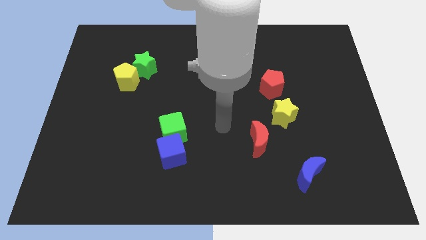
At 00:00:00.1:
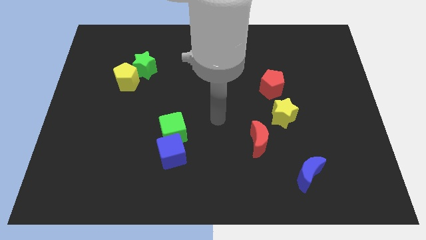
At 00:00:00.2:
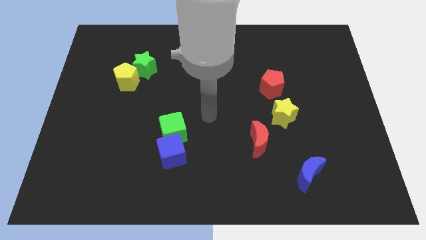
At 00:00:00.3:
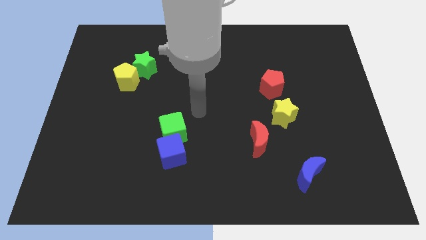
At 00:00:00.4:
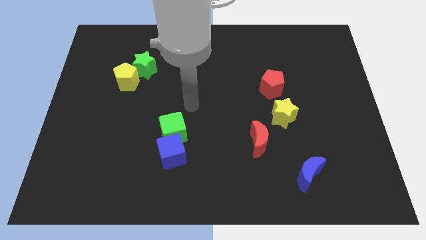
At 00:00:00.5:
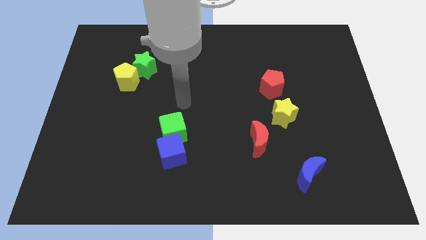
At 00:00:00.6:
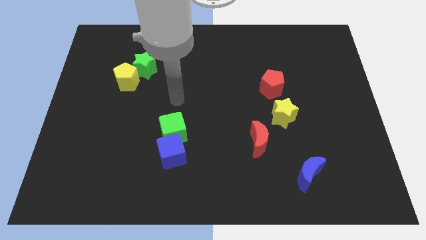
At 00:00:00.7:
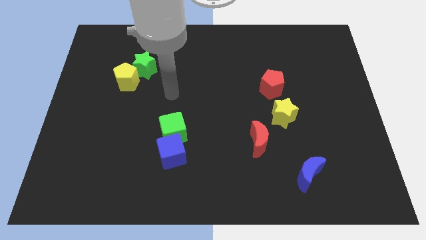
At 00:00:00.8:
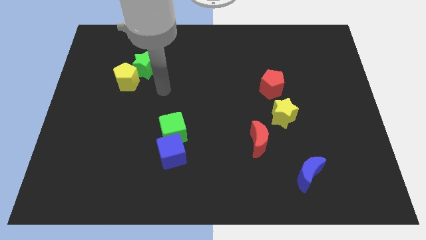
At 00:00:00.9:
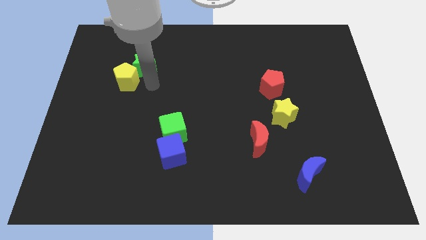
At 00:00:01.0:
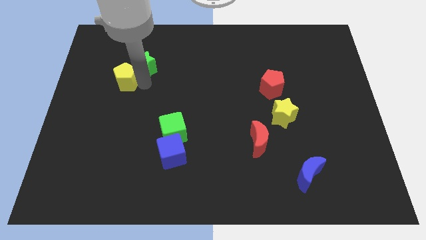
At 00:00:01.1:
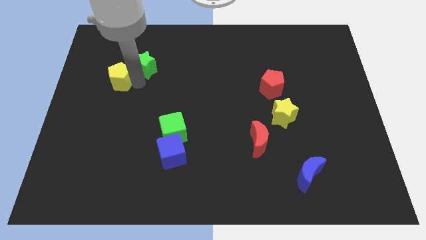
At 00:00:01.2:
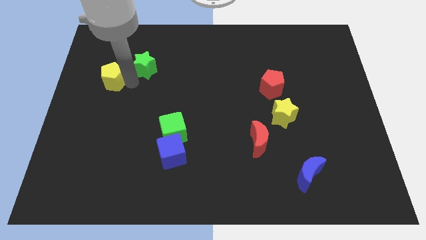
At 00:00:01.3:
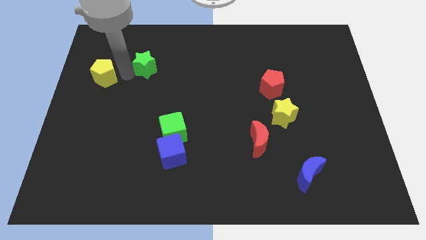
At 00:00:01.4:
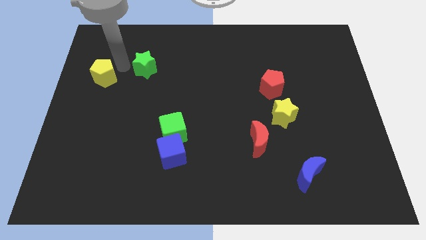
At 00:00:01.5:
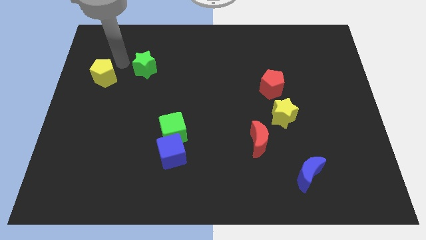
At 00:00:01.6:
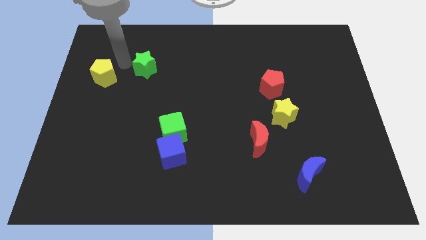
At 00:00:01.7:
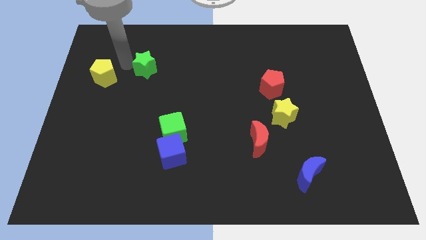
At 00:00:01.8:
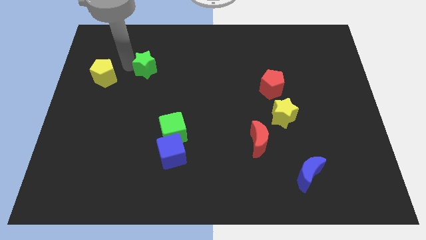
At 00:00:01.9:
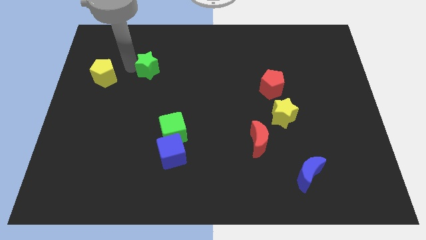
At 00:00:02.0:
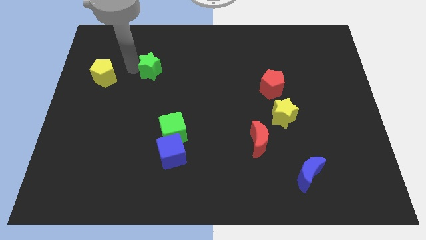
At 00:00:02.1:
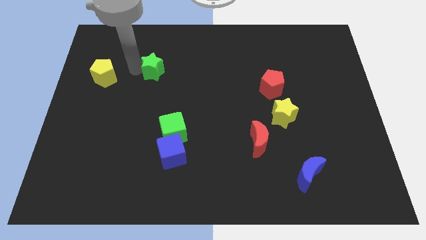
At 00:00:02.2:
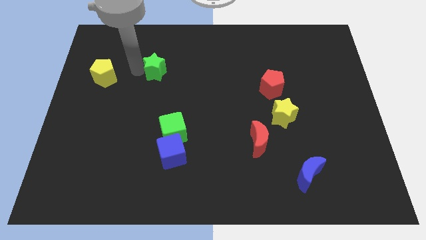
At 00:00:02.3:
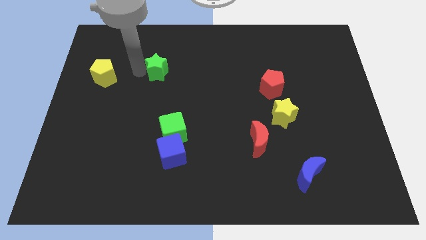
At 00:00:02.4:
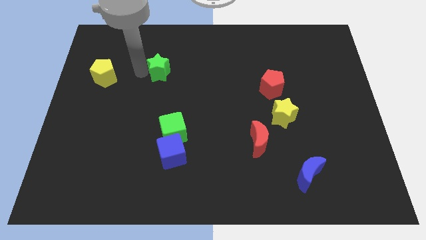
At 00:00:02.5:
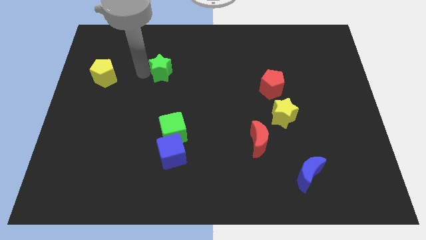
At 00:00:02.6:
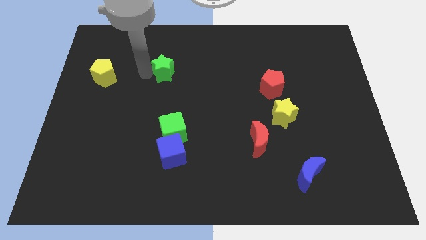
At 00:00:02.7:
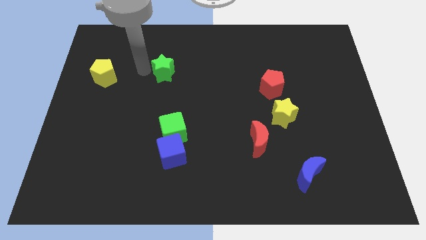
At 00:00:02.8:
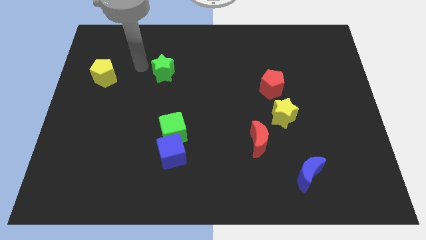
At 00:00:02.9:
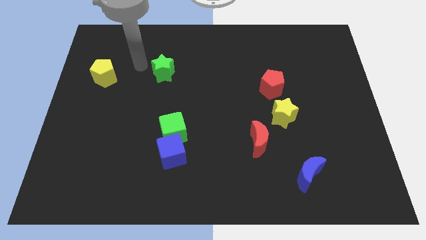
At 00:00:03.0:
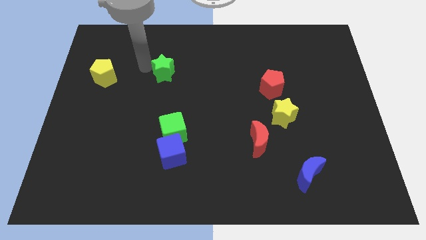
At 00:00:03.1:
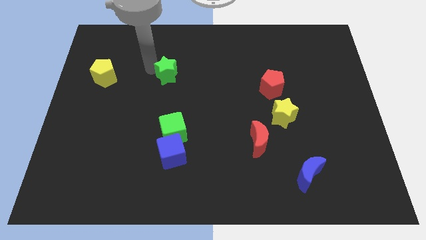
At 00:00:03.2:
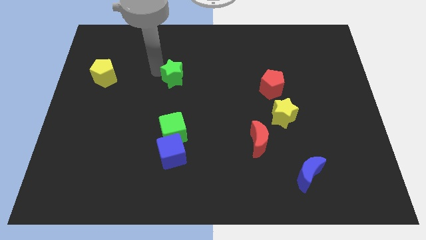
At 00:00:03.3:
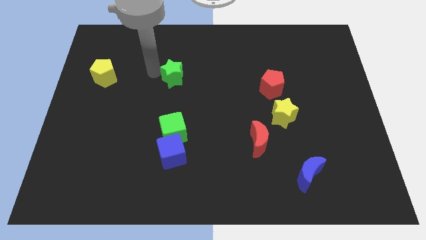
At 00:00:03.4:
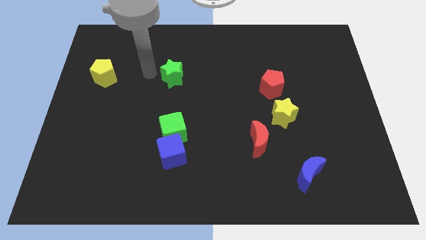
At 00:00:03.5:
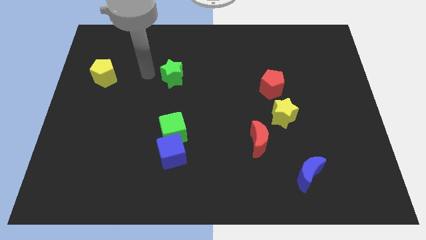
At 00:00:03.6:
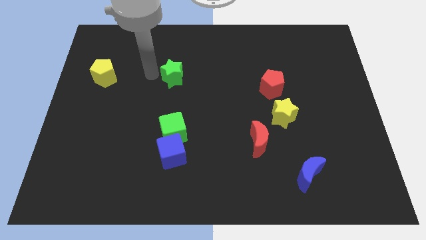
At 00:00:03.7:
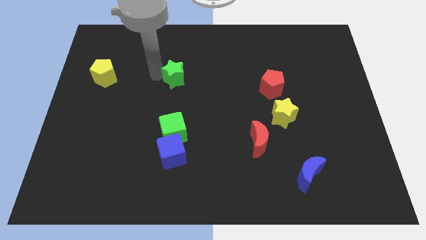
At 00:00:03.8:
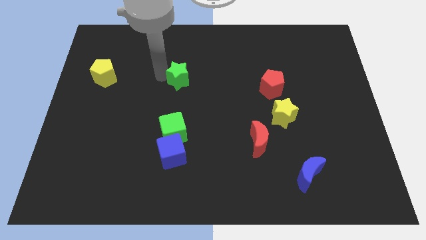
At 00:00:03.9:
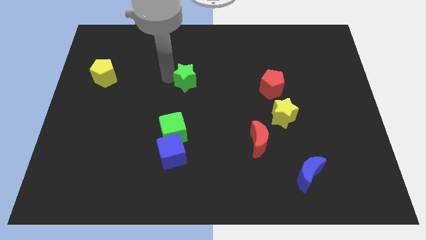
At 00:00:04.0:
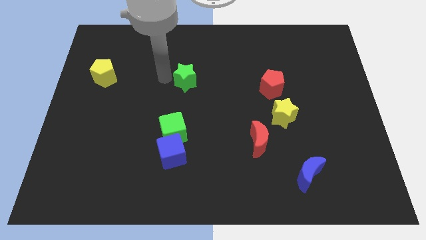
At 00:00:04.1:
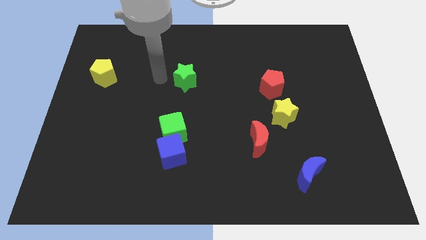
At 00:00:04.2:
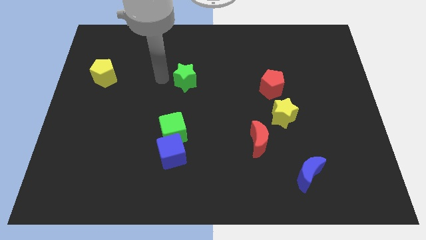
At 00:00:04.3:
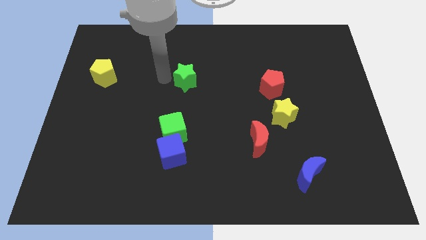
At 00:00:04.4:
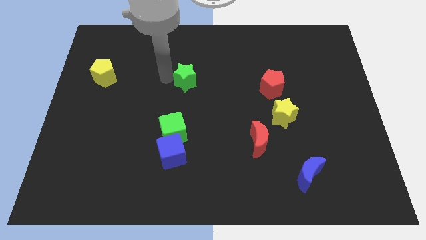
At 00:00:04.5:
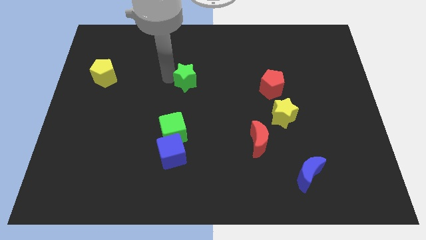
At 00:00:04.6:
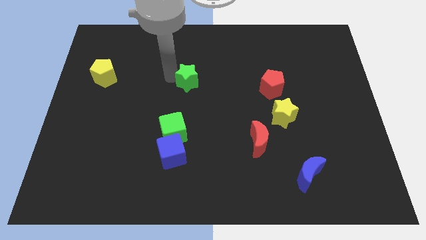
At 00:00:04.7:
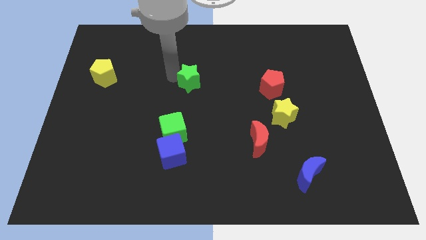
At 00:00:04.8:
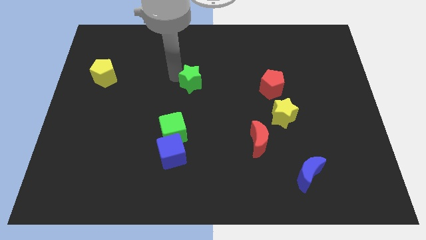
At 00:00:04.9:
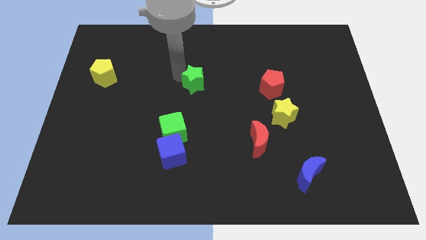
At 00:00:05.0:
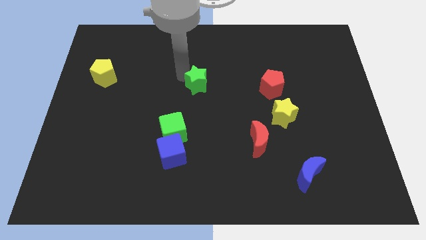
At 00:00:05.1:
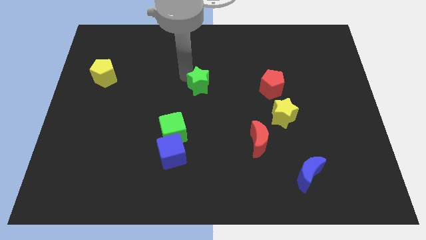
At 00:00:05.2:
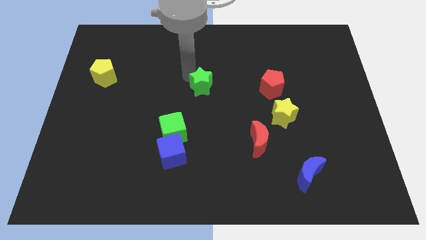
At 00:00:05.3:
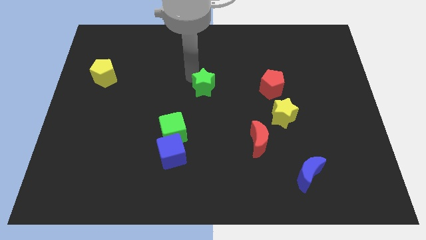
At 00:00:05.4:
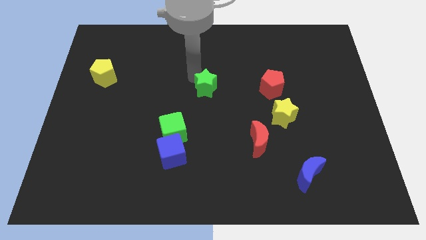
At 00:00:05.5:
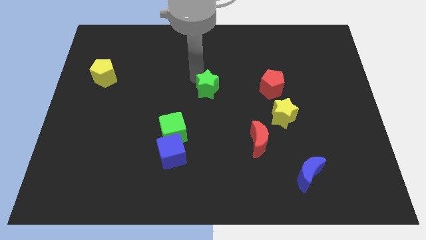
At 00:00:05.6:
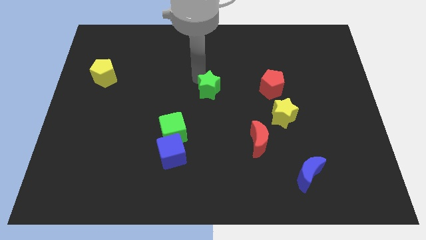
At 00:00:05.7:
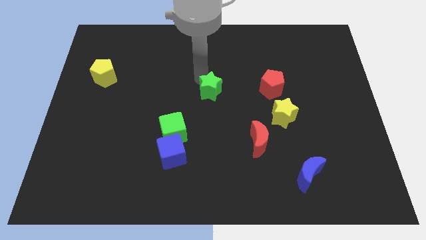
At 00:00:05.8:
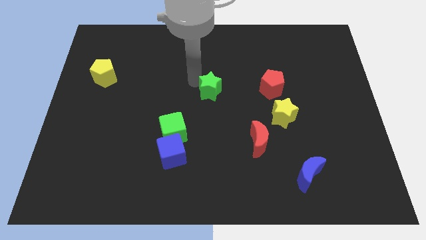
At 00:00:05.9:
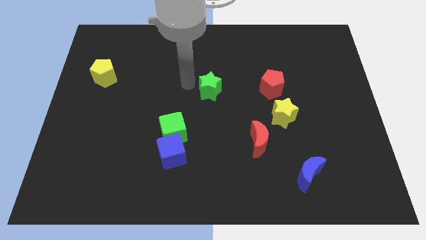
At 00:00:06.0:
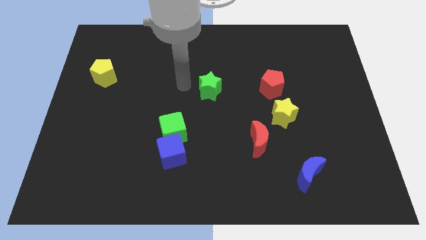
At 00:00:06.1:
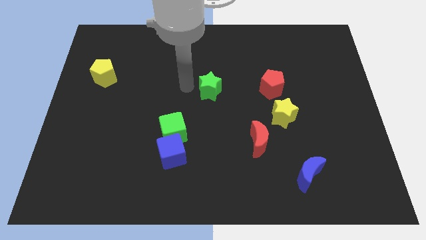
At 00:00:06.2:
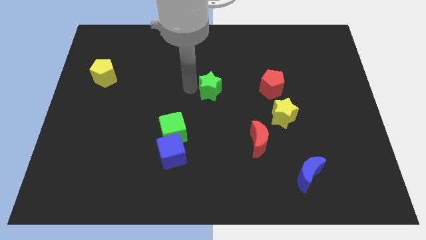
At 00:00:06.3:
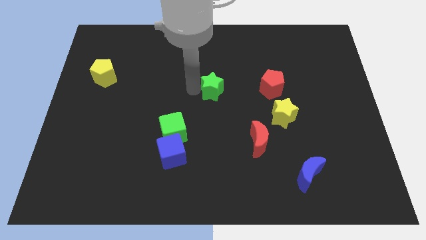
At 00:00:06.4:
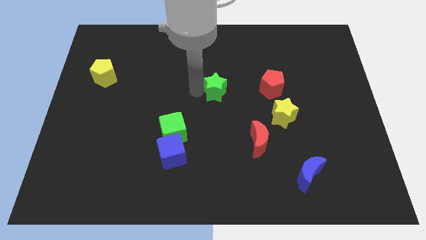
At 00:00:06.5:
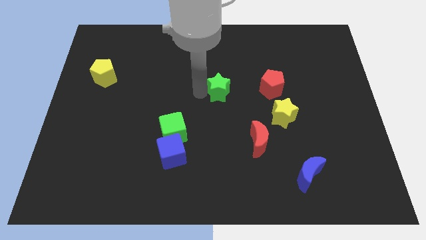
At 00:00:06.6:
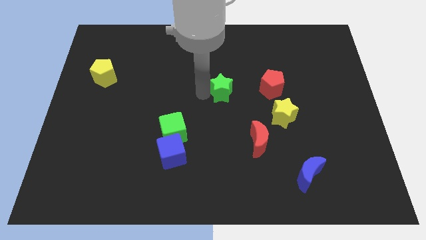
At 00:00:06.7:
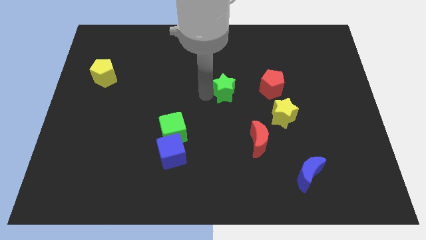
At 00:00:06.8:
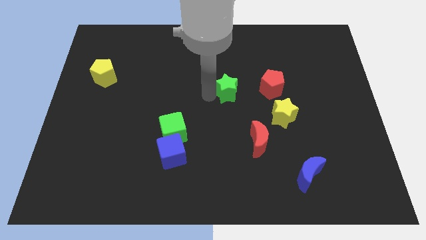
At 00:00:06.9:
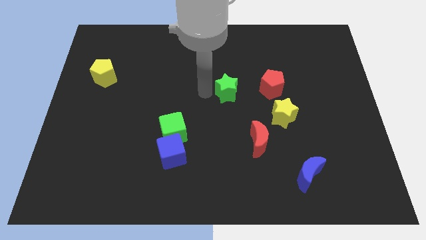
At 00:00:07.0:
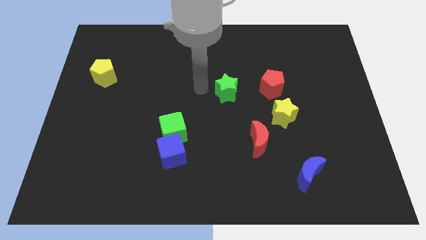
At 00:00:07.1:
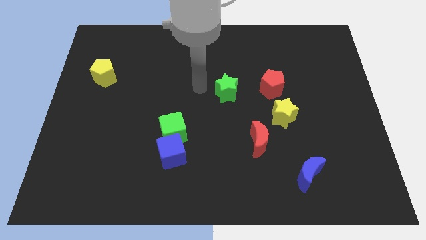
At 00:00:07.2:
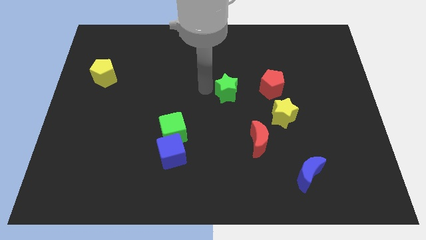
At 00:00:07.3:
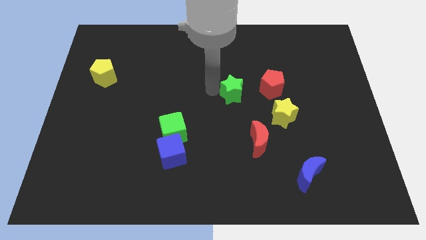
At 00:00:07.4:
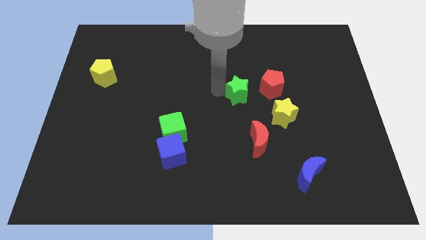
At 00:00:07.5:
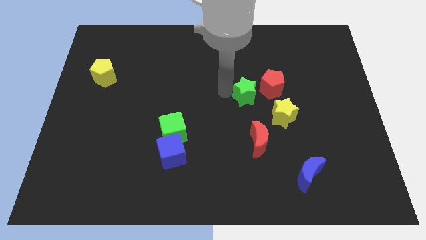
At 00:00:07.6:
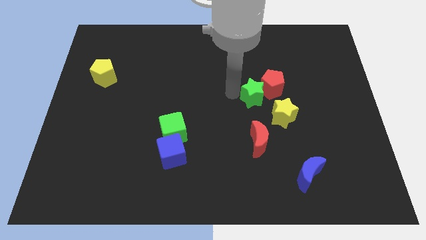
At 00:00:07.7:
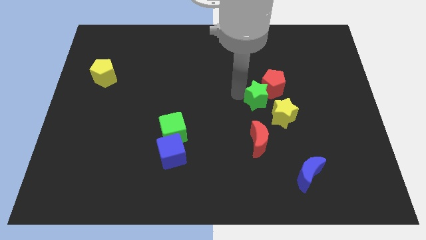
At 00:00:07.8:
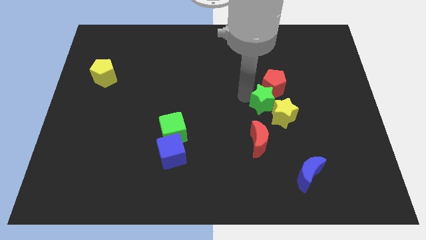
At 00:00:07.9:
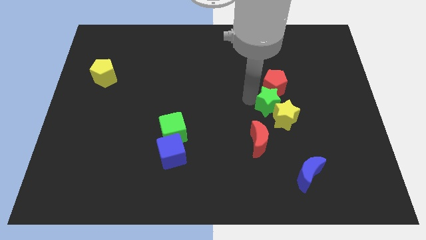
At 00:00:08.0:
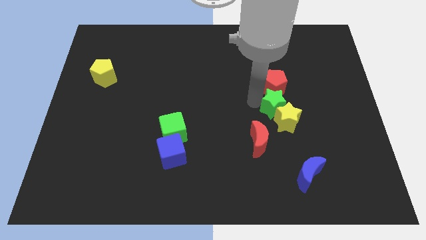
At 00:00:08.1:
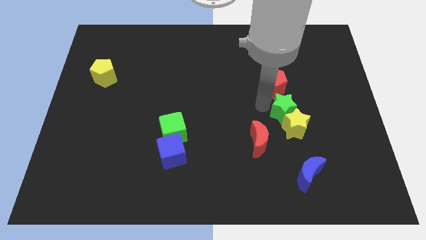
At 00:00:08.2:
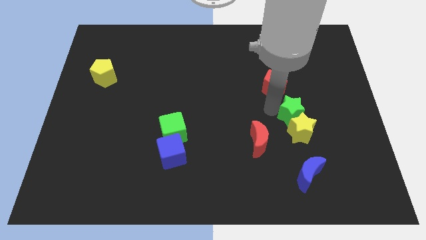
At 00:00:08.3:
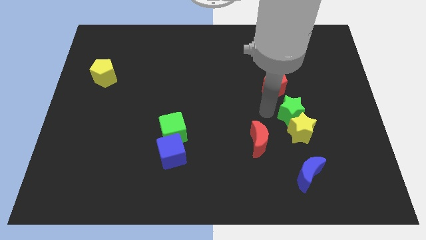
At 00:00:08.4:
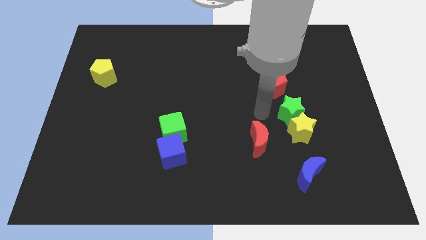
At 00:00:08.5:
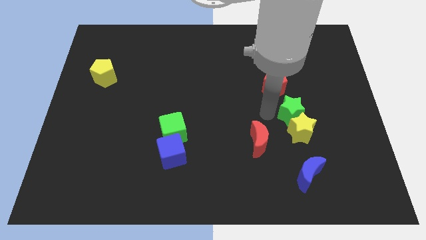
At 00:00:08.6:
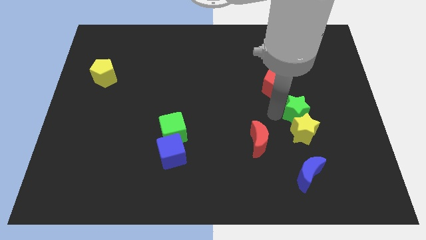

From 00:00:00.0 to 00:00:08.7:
move the green star to the top right of the yellow star
